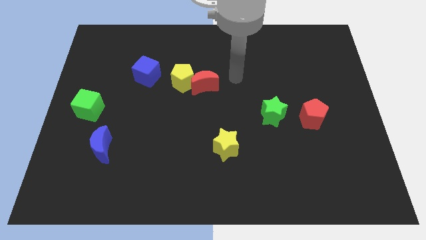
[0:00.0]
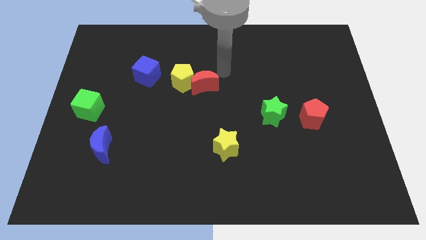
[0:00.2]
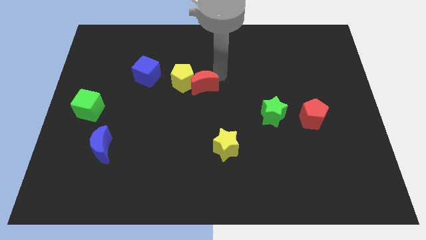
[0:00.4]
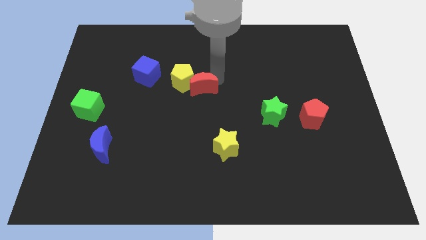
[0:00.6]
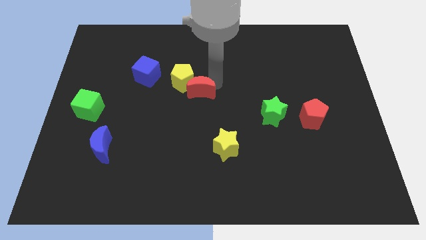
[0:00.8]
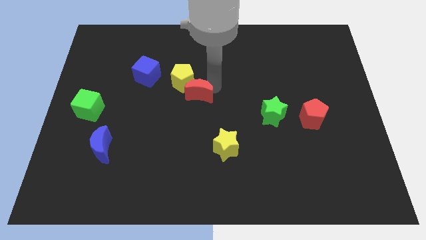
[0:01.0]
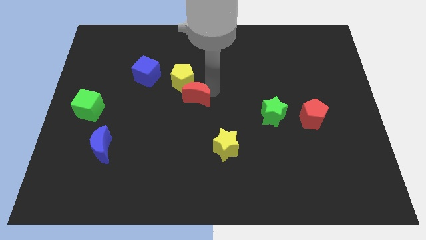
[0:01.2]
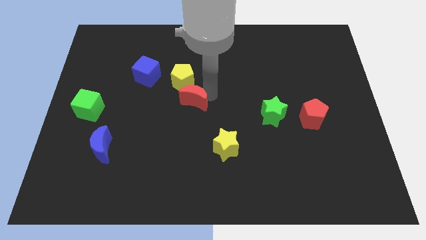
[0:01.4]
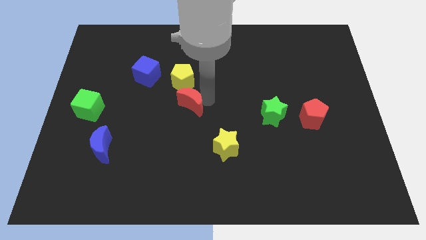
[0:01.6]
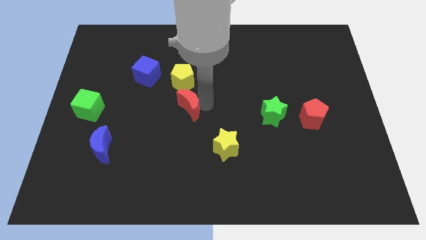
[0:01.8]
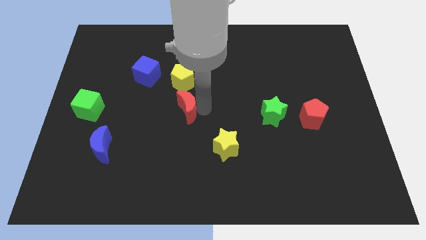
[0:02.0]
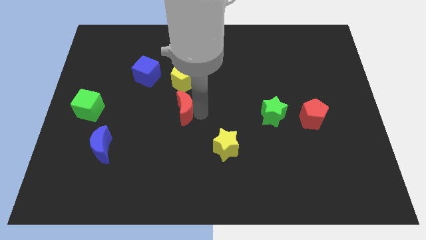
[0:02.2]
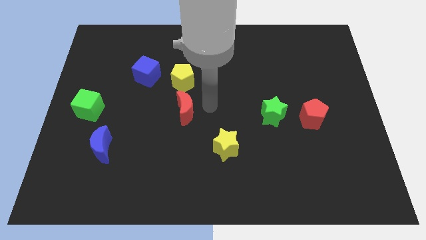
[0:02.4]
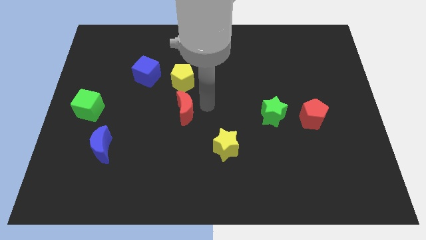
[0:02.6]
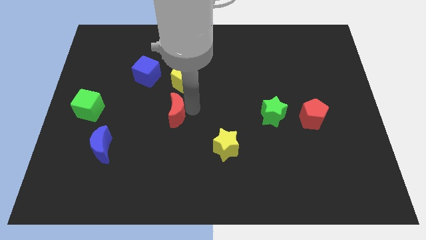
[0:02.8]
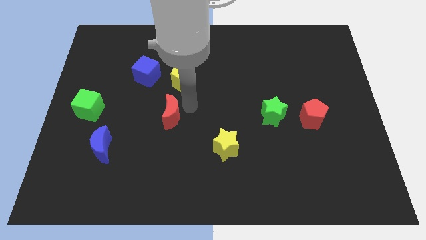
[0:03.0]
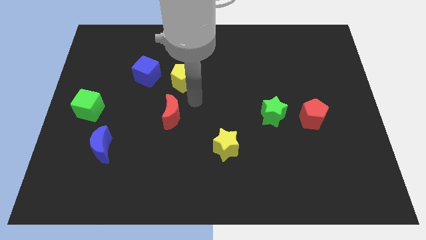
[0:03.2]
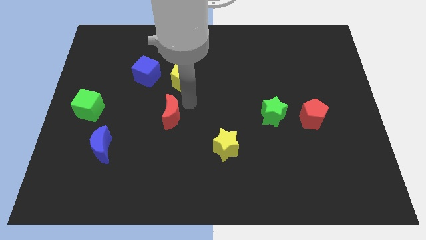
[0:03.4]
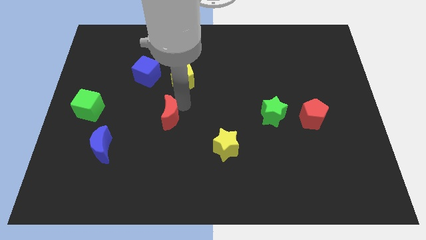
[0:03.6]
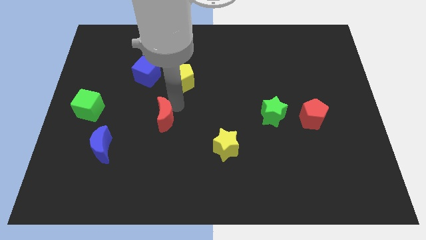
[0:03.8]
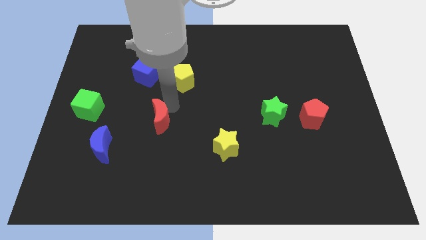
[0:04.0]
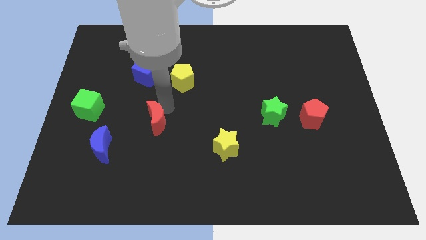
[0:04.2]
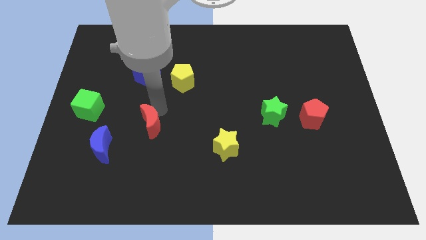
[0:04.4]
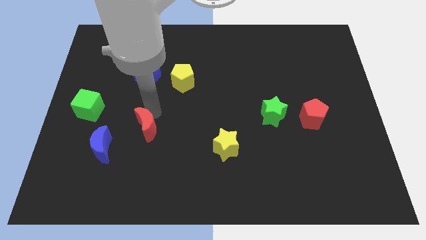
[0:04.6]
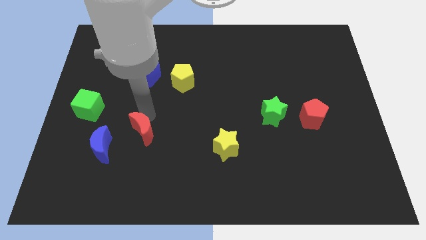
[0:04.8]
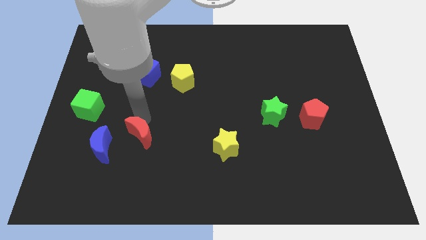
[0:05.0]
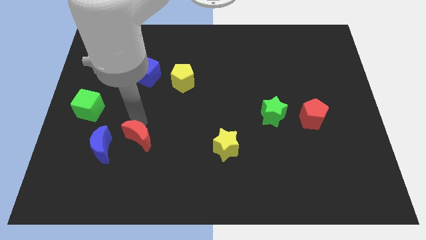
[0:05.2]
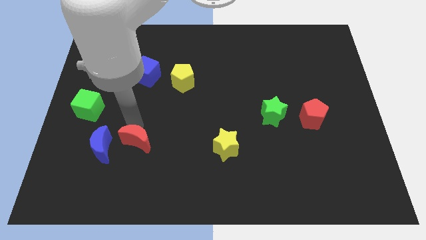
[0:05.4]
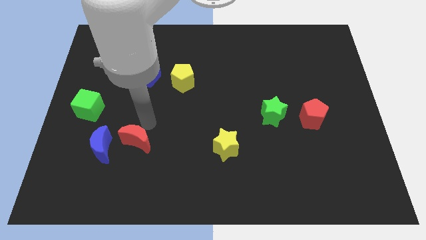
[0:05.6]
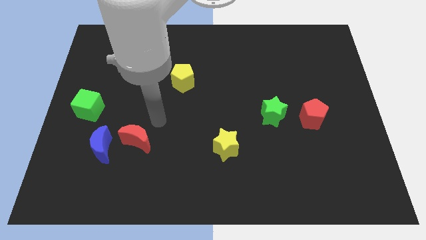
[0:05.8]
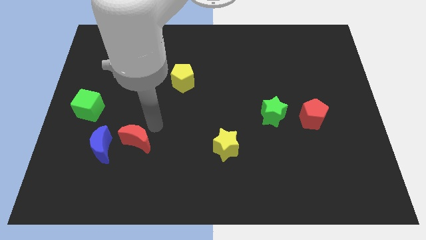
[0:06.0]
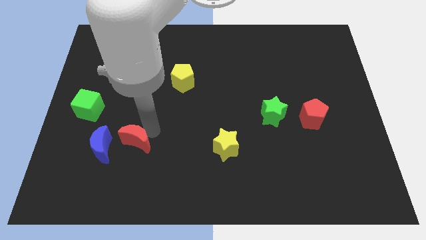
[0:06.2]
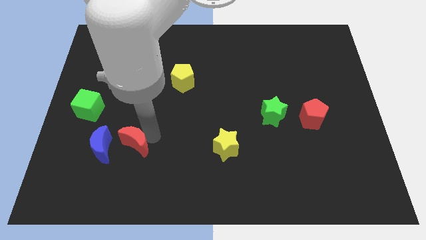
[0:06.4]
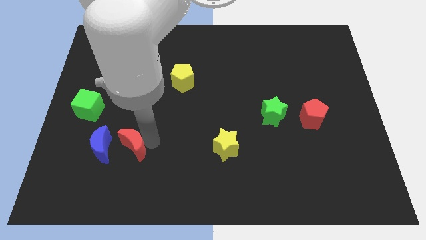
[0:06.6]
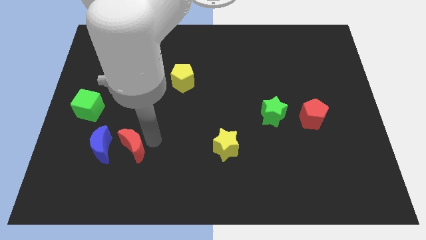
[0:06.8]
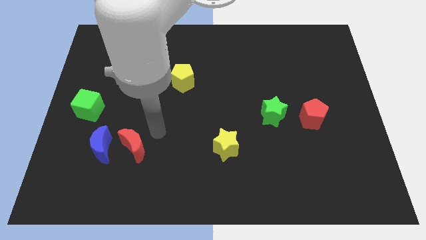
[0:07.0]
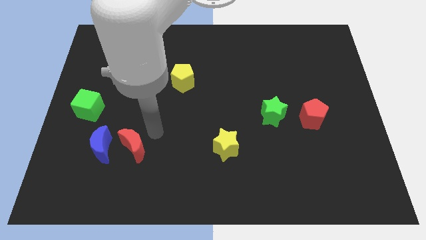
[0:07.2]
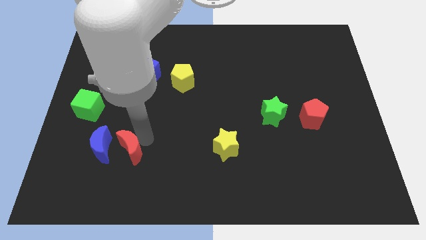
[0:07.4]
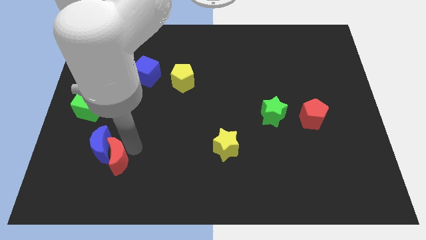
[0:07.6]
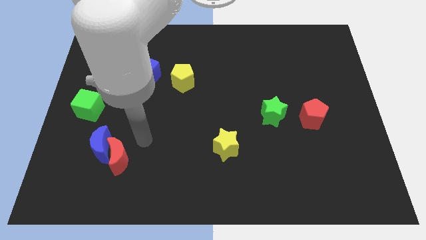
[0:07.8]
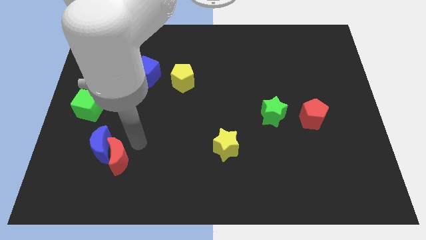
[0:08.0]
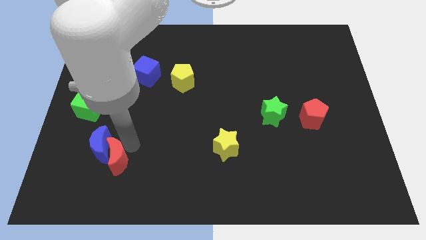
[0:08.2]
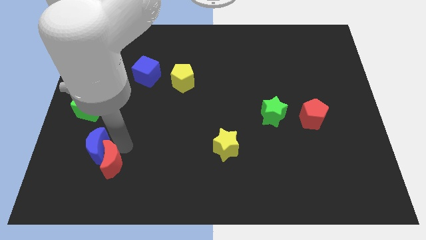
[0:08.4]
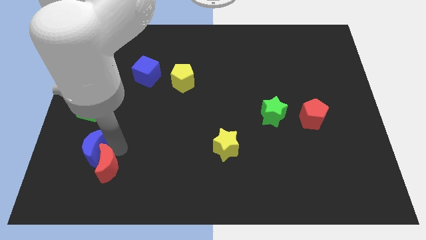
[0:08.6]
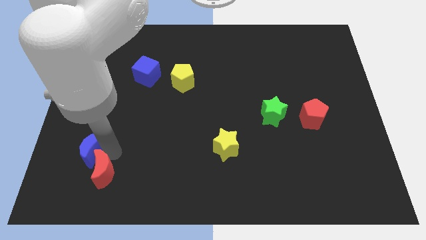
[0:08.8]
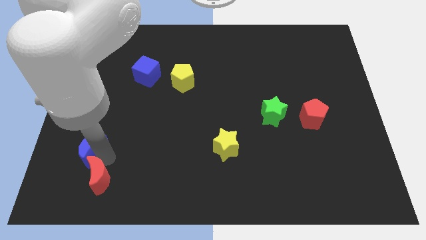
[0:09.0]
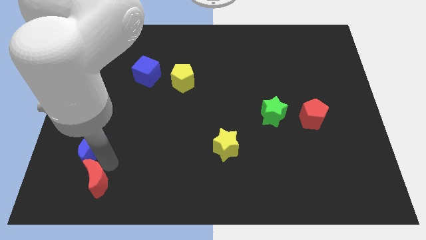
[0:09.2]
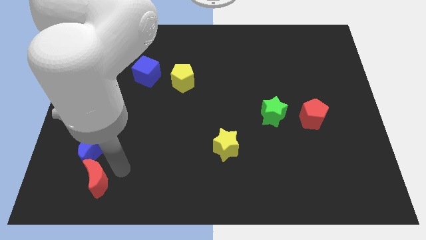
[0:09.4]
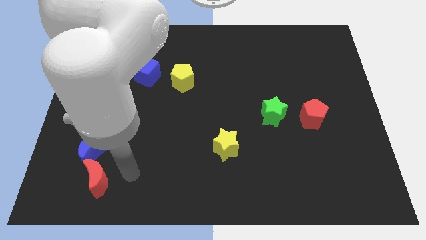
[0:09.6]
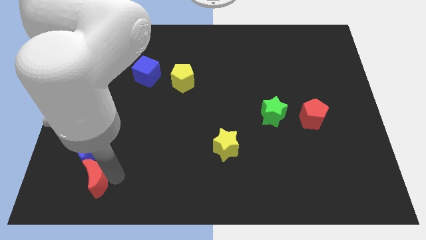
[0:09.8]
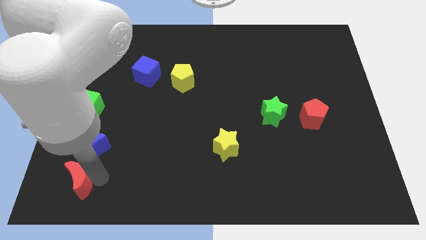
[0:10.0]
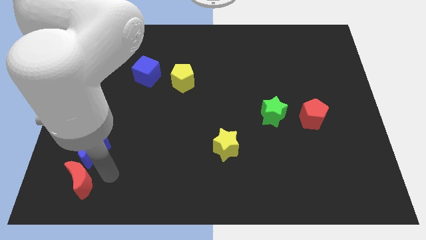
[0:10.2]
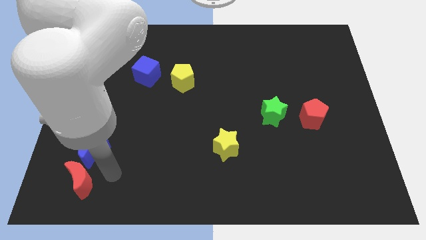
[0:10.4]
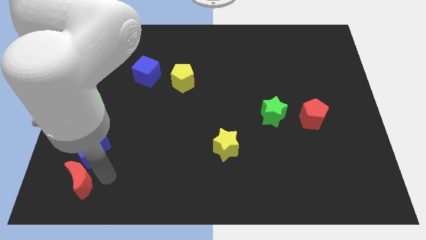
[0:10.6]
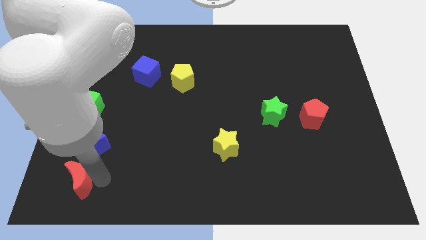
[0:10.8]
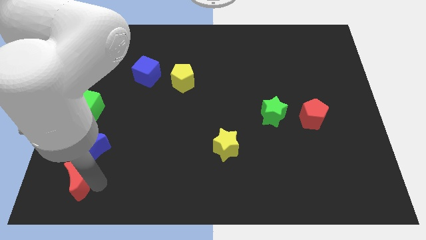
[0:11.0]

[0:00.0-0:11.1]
push the red moon to the bottom left corner

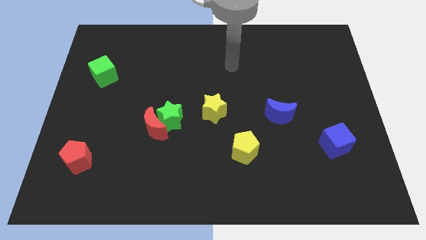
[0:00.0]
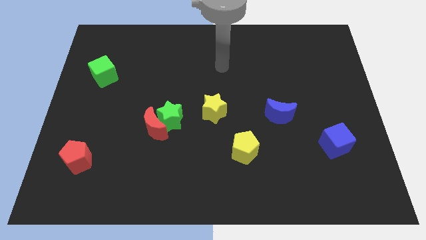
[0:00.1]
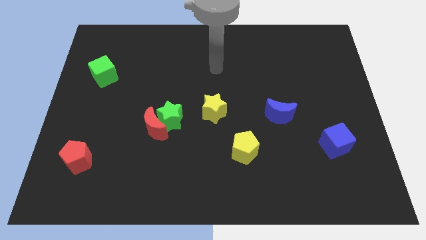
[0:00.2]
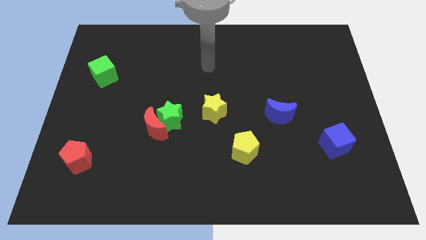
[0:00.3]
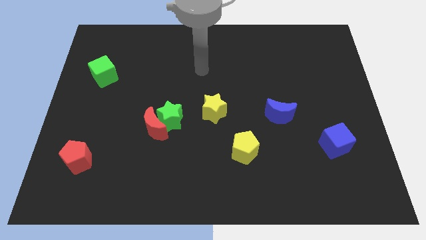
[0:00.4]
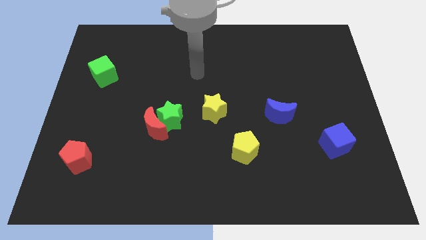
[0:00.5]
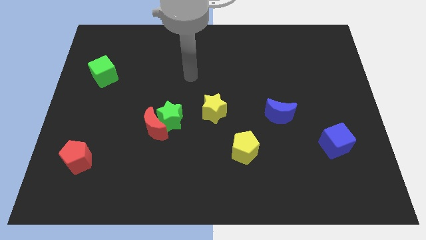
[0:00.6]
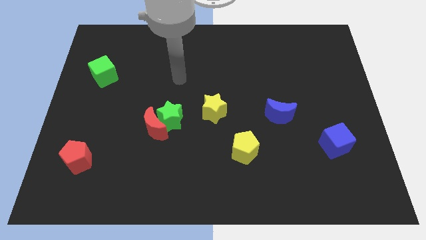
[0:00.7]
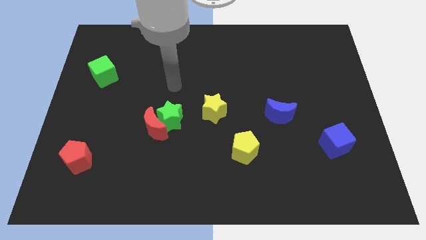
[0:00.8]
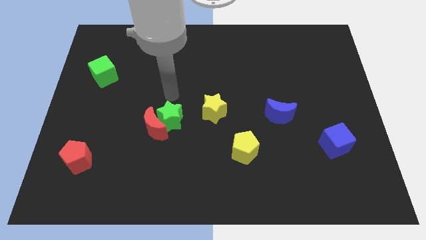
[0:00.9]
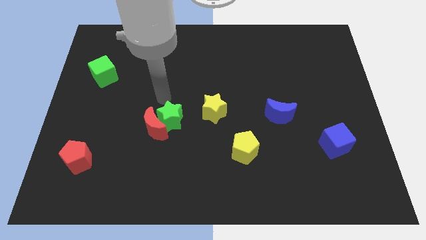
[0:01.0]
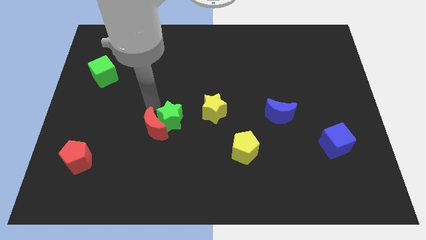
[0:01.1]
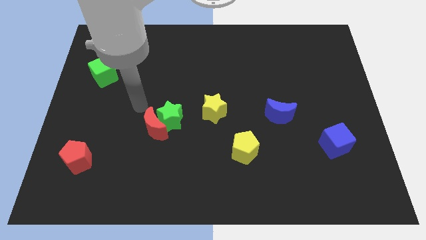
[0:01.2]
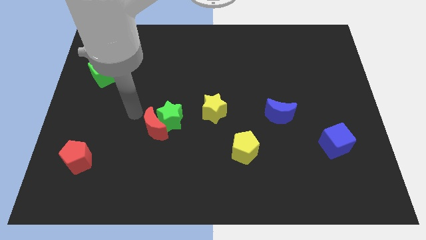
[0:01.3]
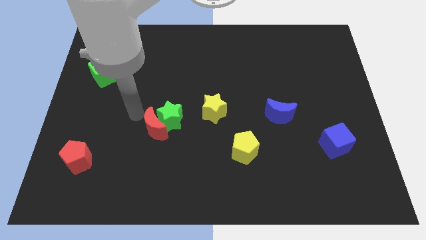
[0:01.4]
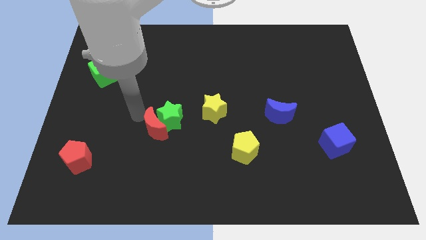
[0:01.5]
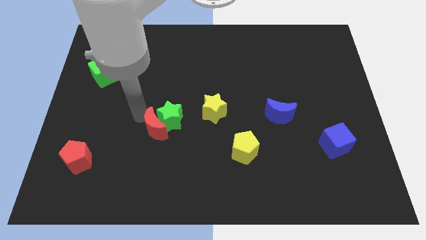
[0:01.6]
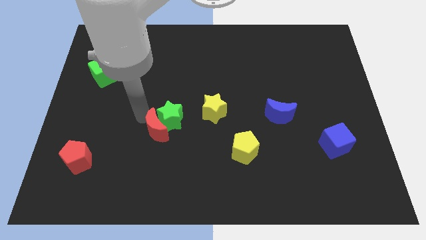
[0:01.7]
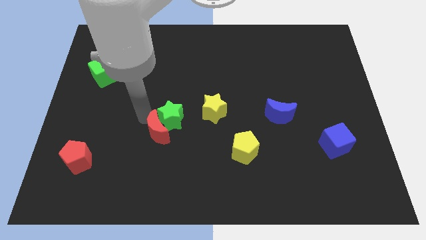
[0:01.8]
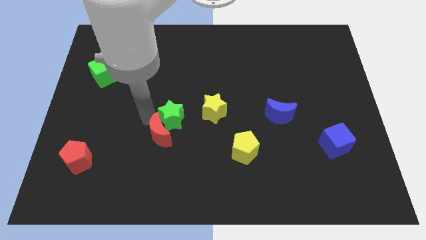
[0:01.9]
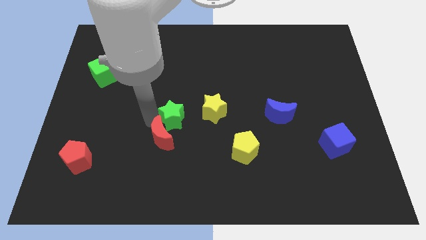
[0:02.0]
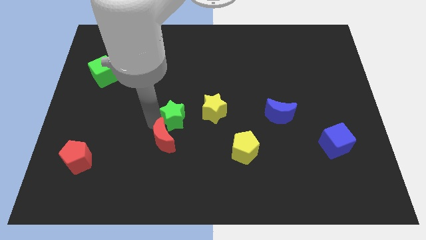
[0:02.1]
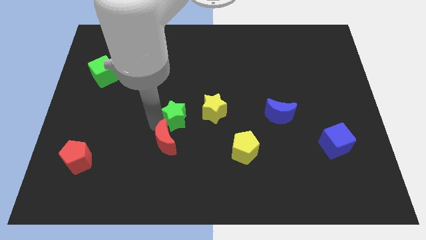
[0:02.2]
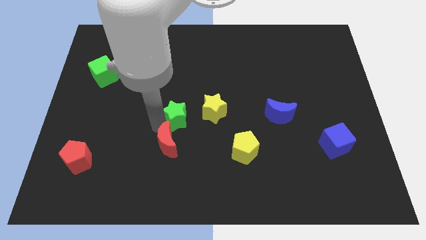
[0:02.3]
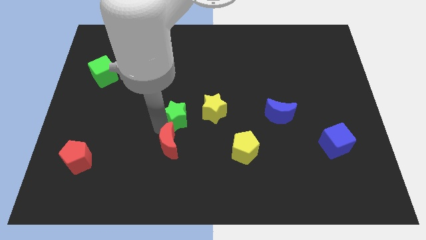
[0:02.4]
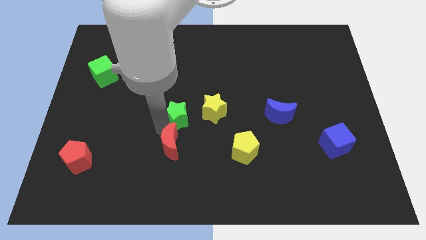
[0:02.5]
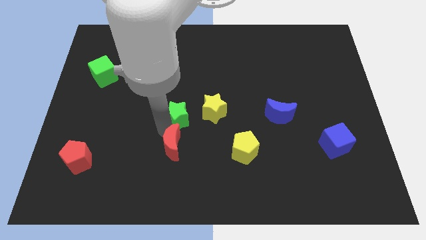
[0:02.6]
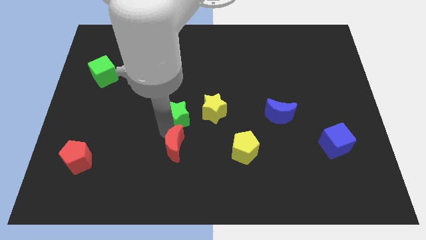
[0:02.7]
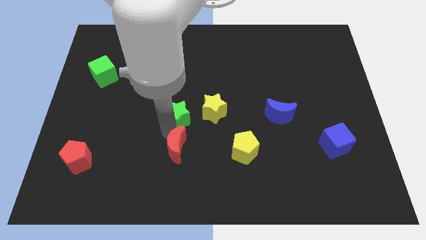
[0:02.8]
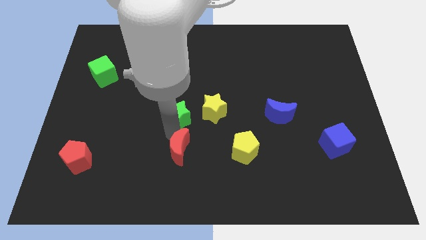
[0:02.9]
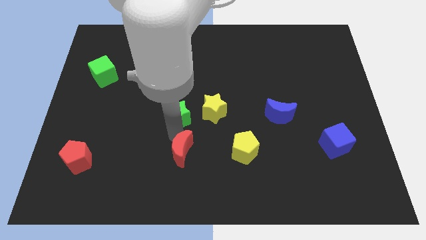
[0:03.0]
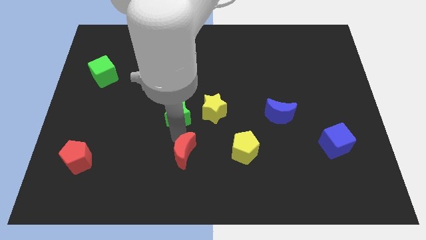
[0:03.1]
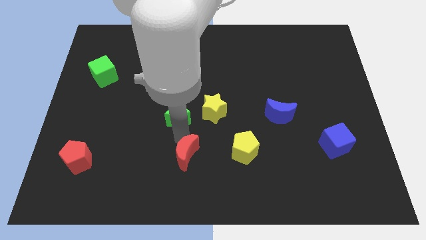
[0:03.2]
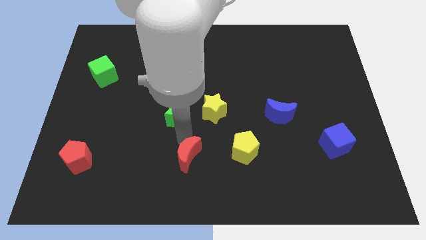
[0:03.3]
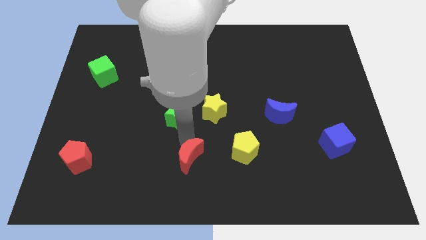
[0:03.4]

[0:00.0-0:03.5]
push the red moon to the bottom
